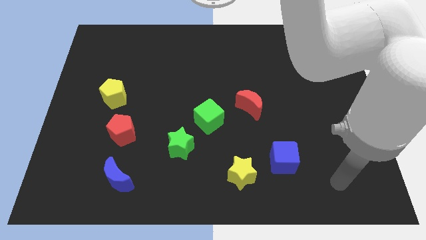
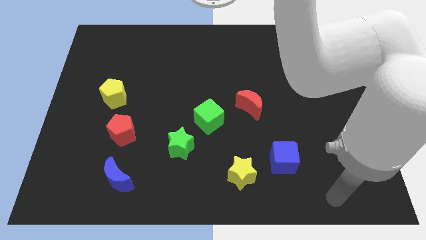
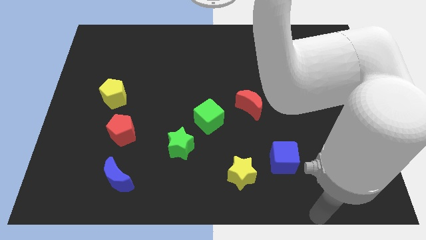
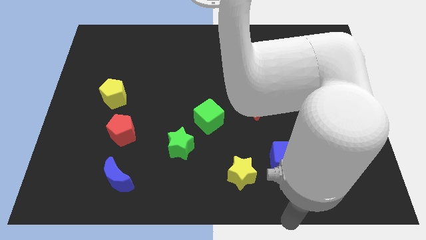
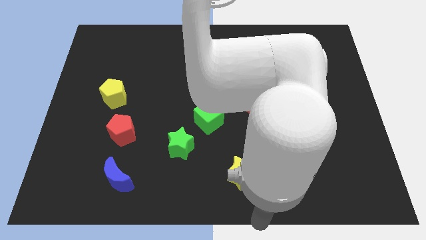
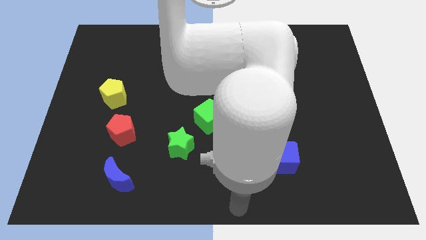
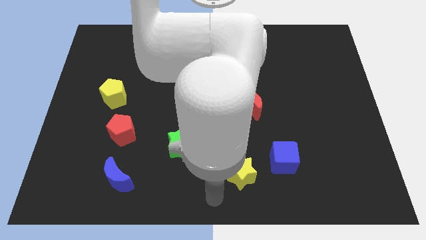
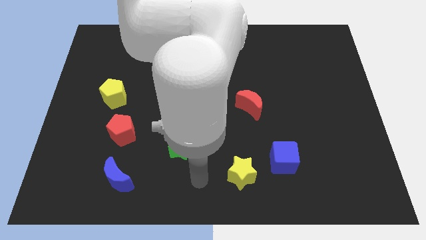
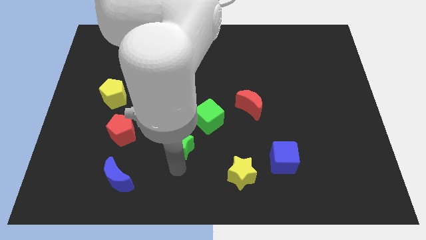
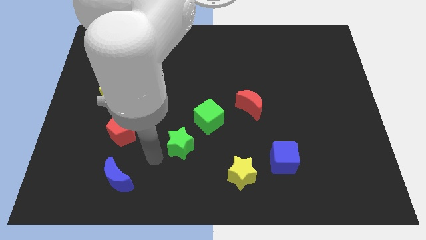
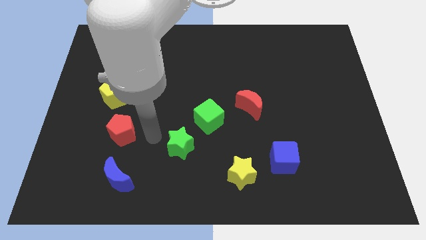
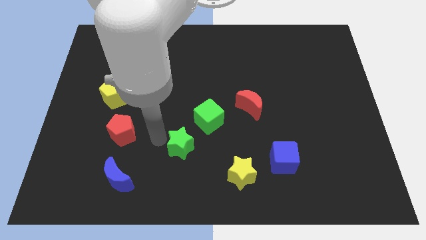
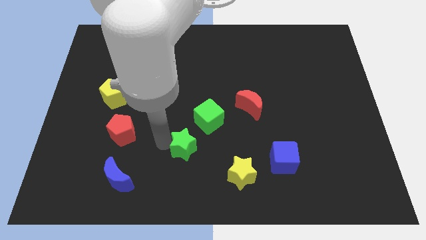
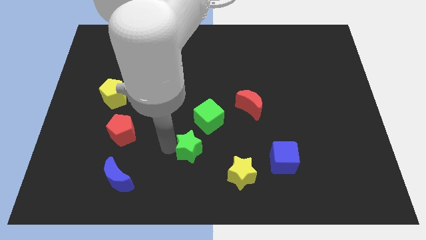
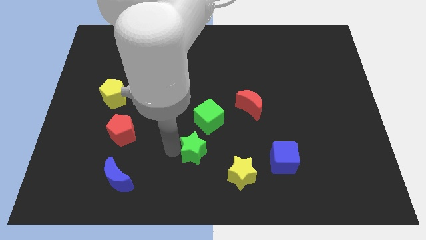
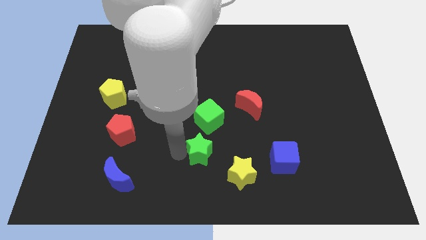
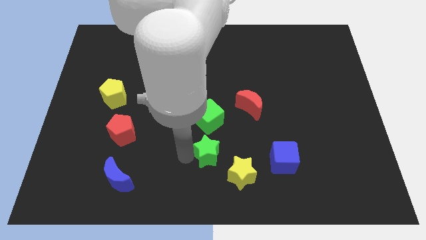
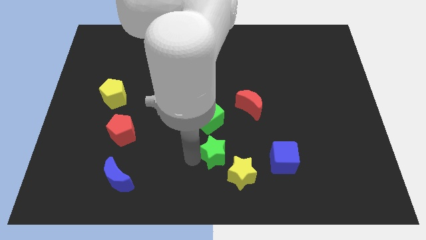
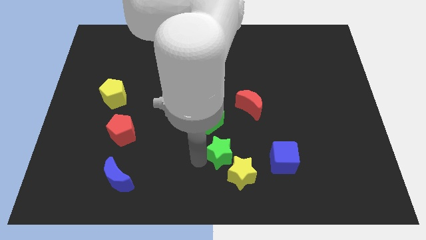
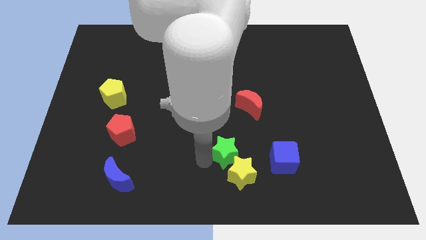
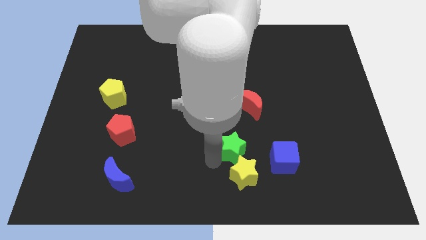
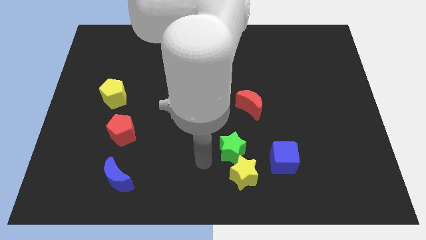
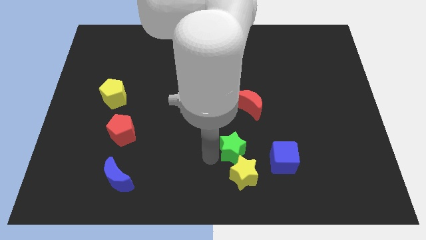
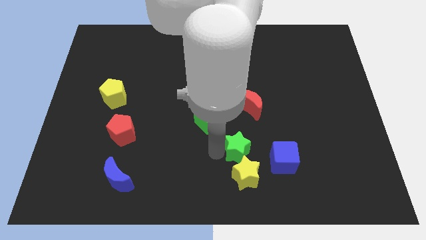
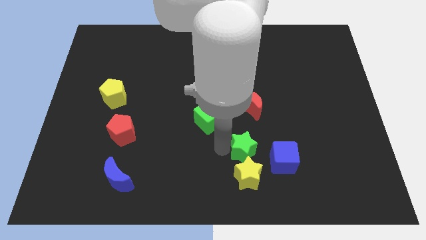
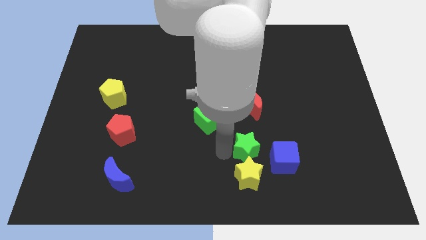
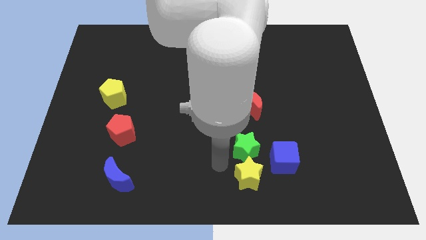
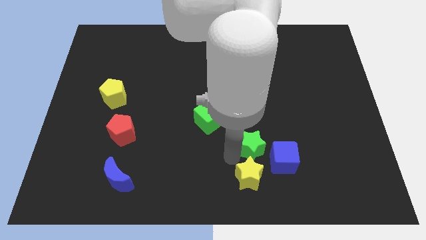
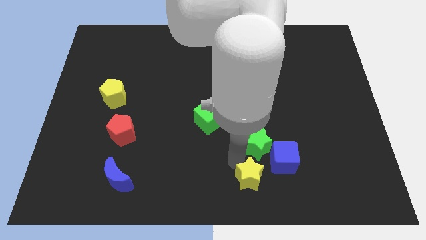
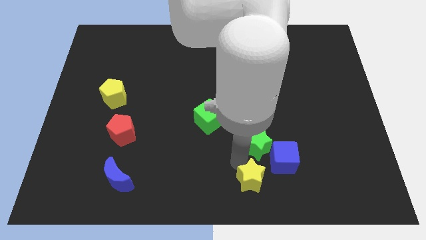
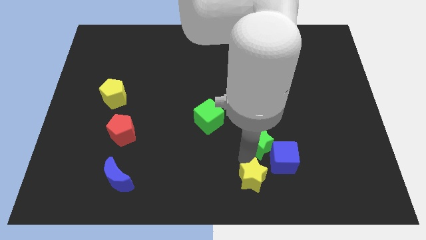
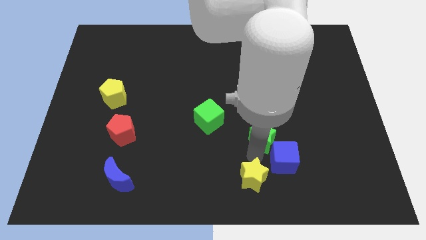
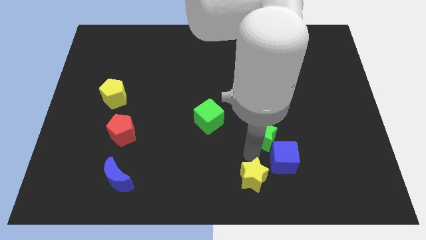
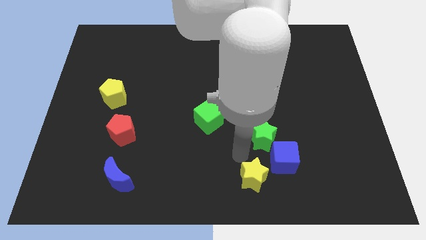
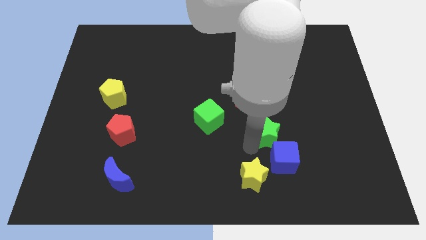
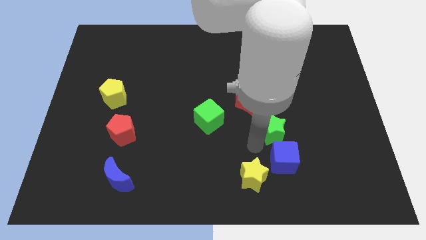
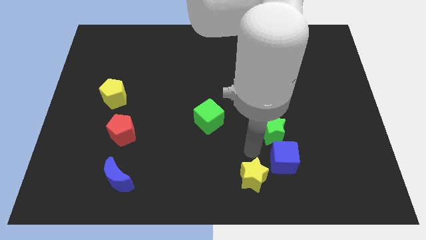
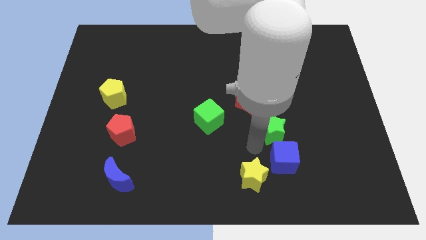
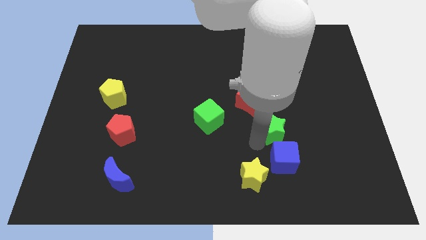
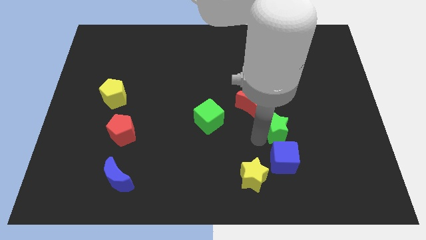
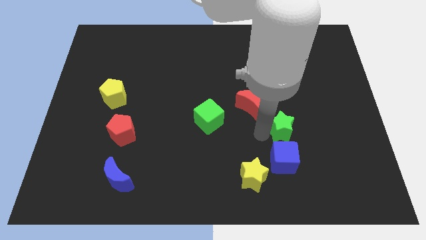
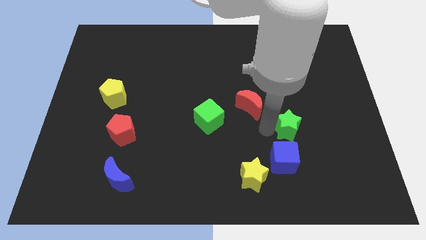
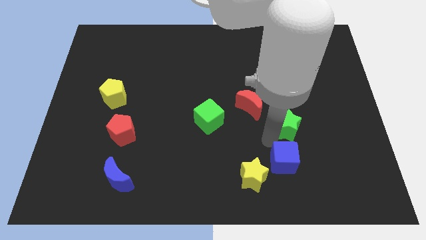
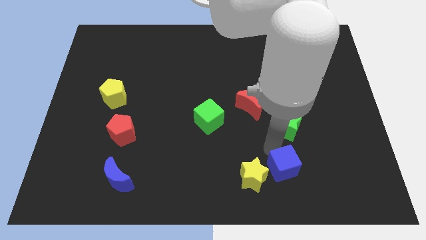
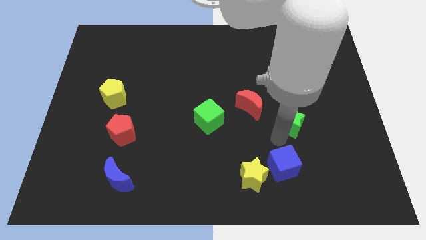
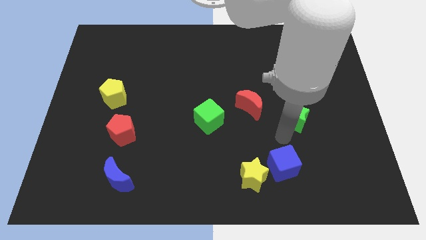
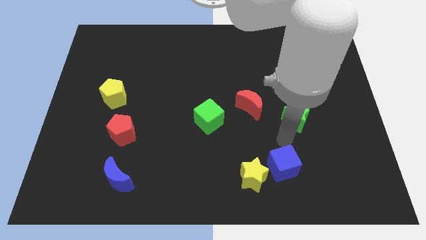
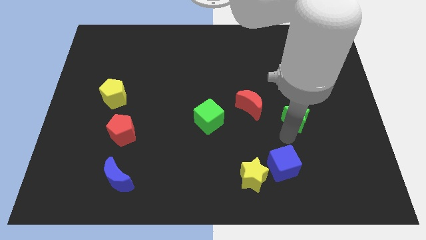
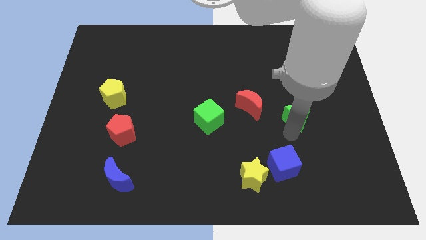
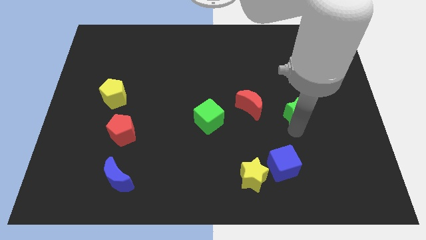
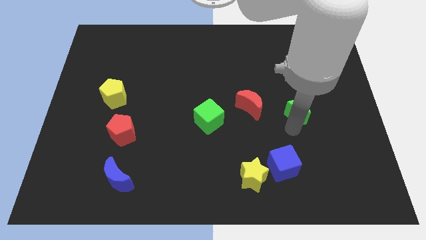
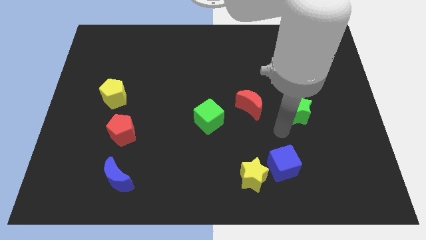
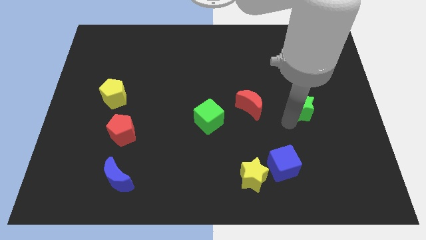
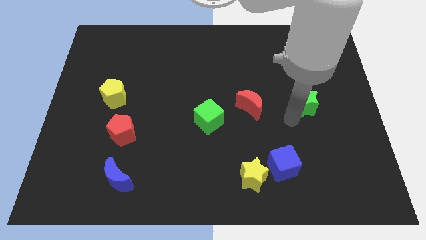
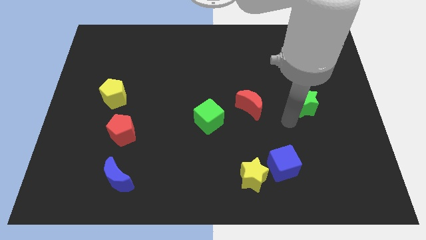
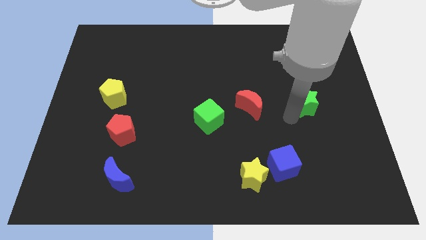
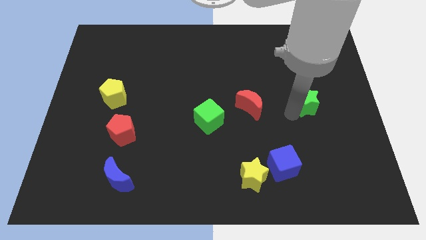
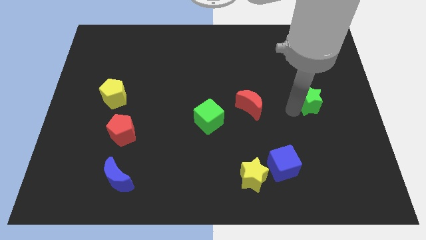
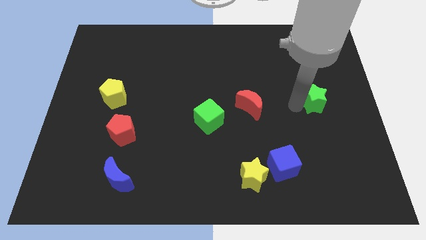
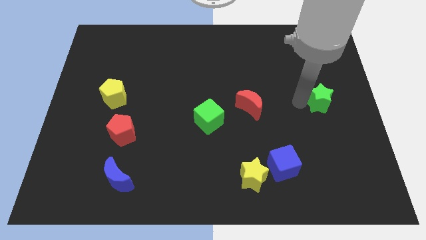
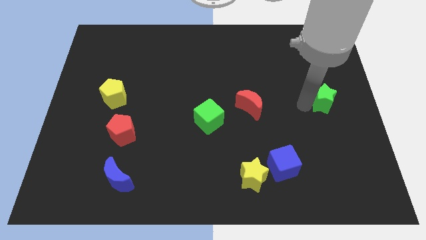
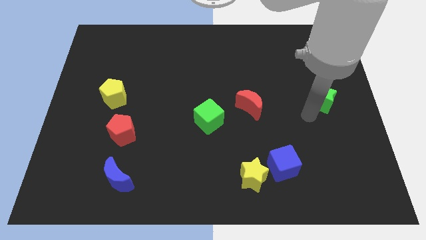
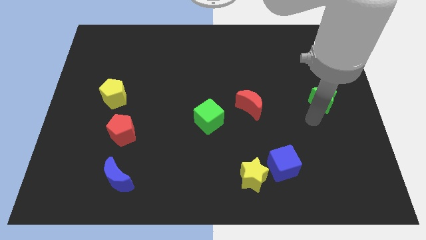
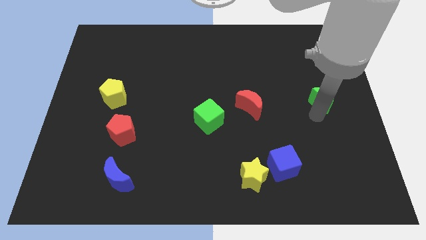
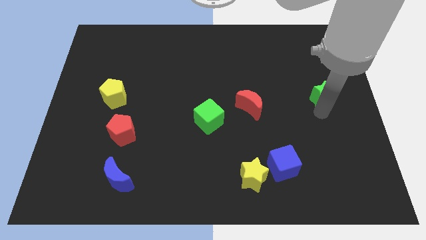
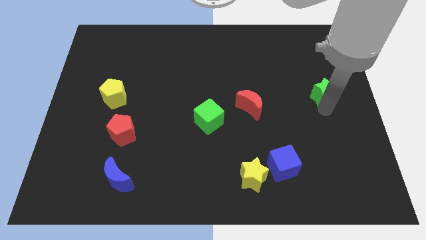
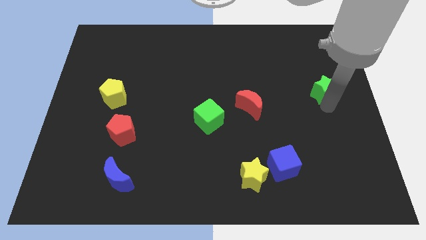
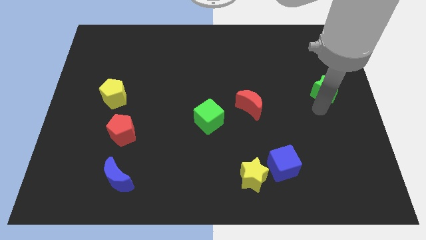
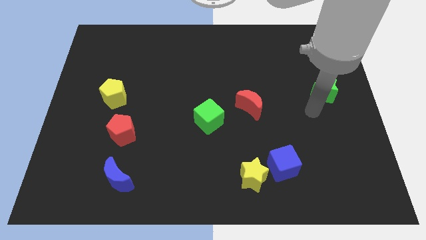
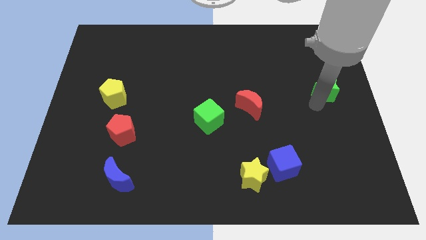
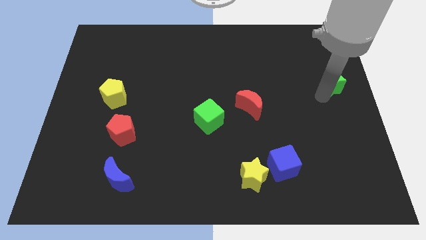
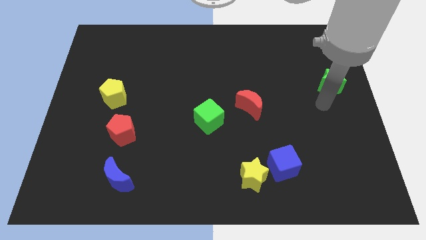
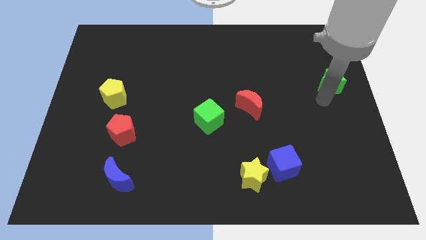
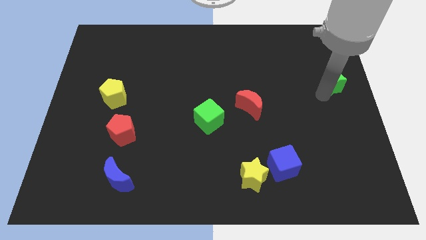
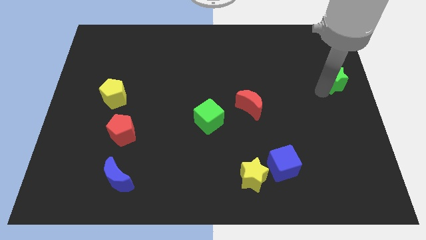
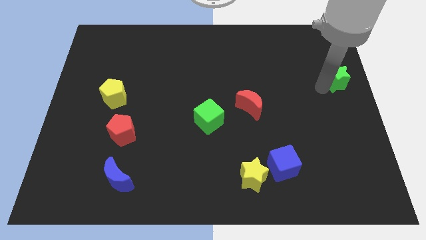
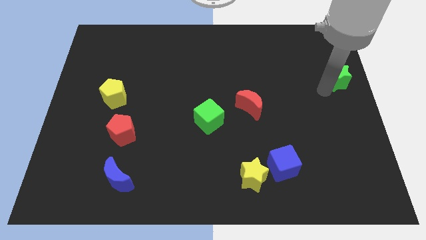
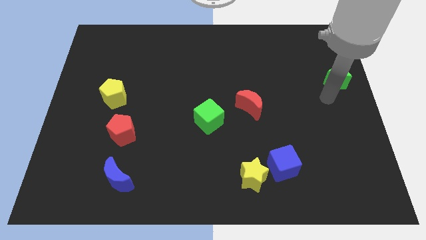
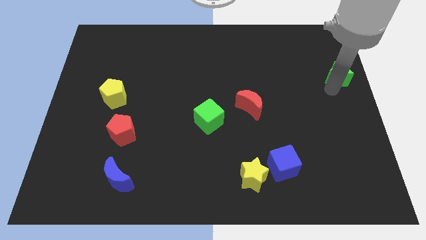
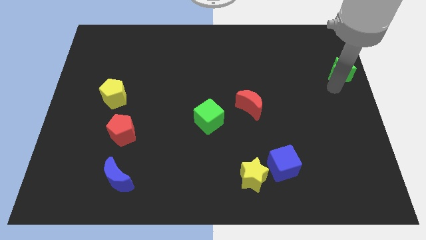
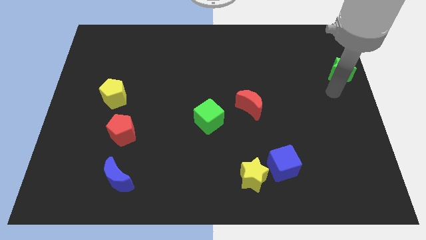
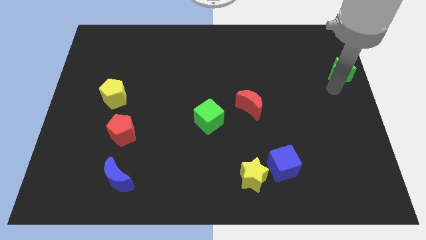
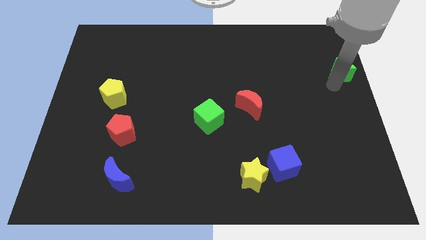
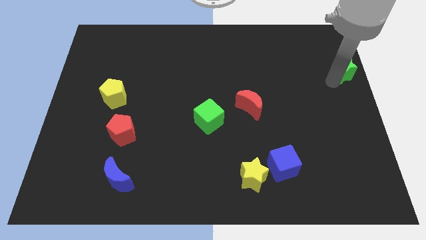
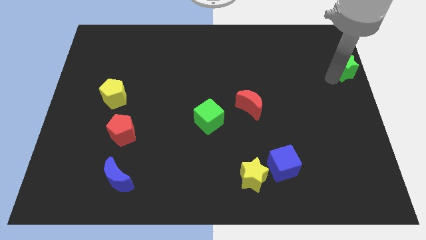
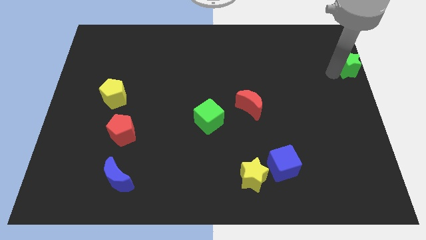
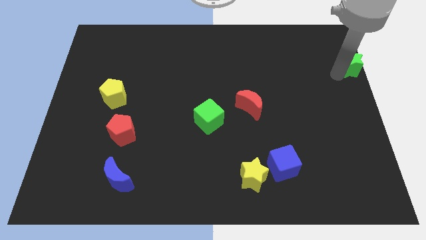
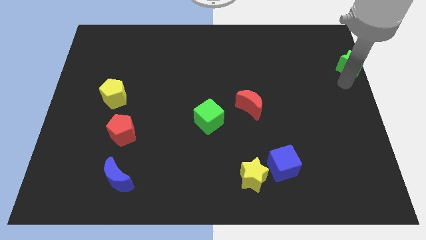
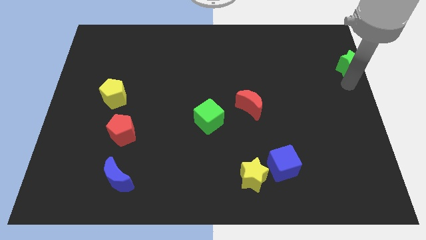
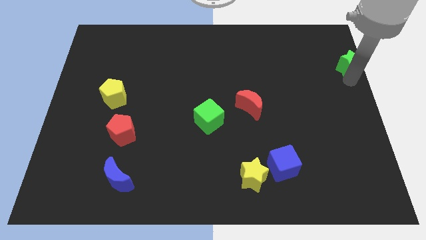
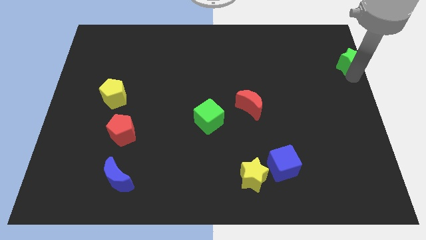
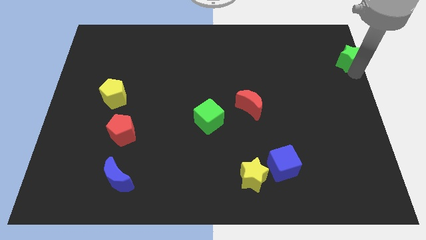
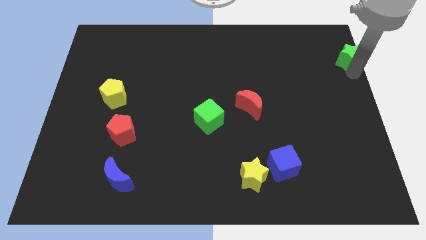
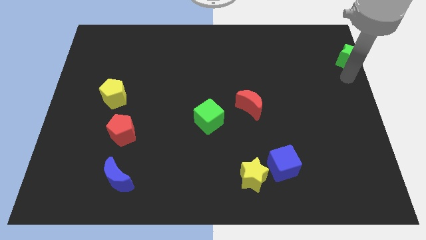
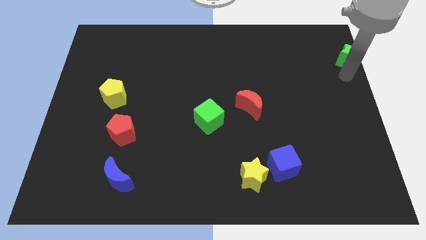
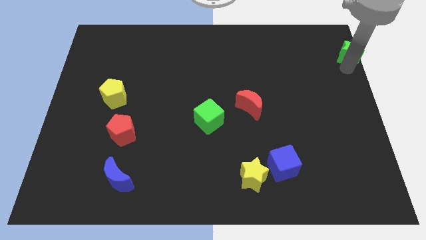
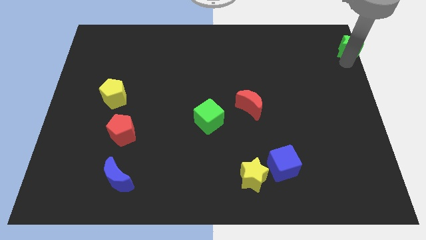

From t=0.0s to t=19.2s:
slide the green star to the top right corner
